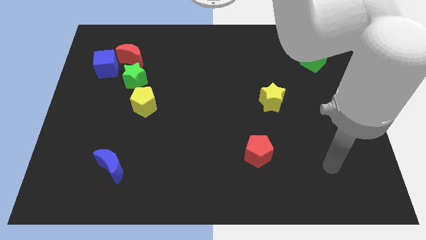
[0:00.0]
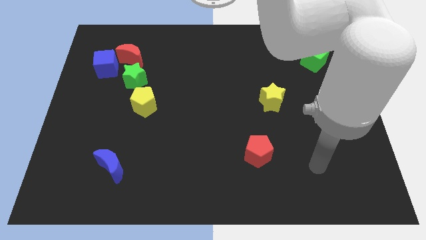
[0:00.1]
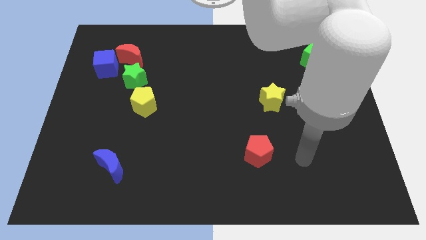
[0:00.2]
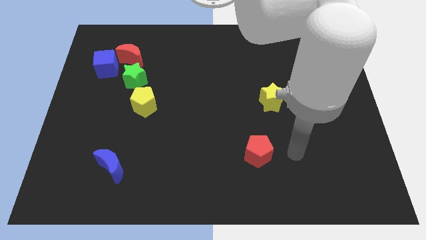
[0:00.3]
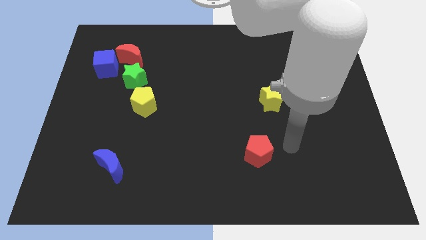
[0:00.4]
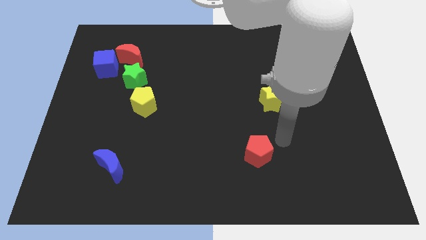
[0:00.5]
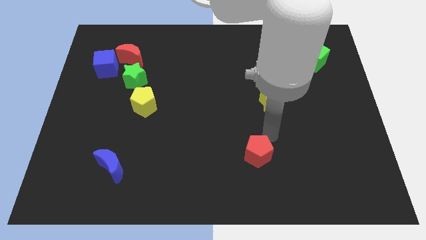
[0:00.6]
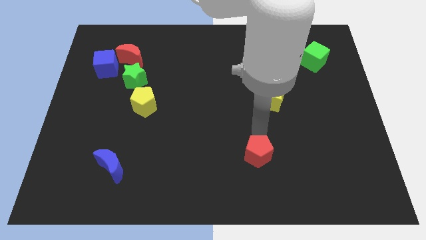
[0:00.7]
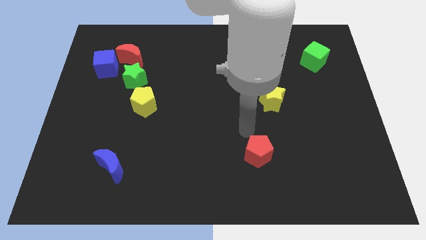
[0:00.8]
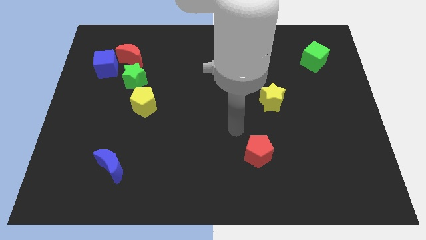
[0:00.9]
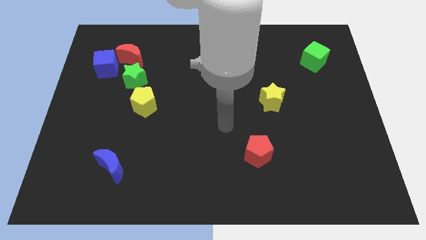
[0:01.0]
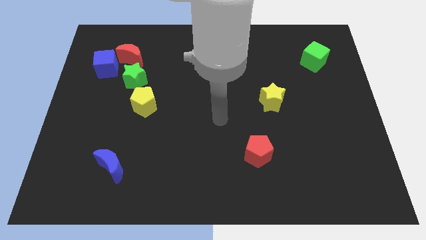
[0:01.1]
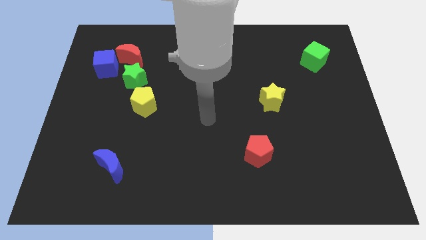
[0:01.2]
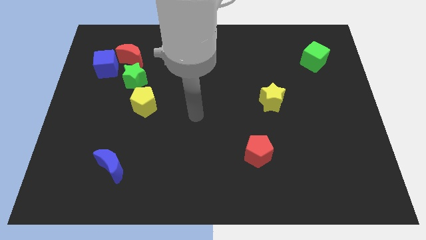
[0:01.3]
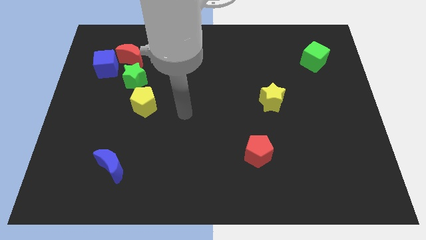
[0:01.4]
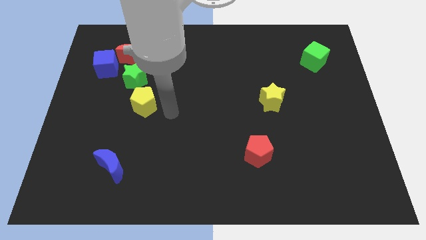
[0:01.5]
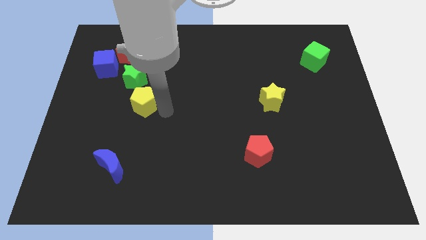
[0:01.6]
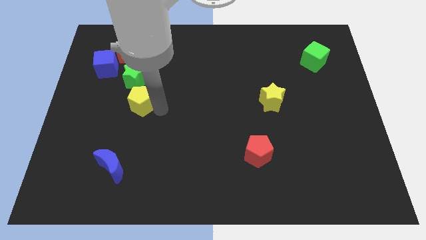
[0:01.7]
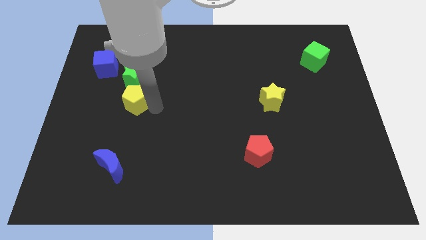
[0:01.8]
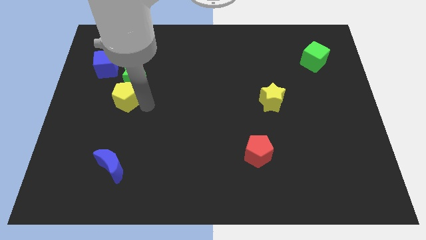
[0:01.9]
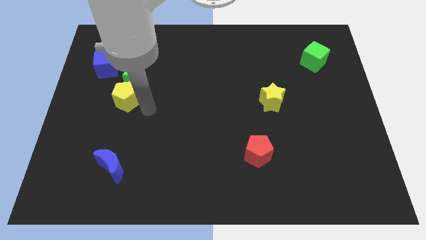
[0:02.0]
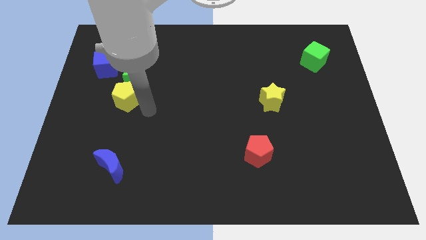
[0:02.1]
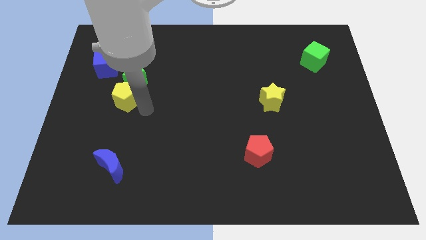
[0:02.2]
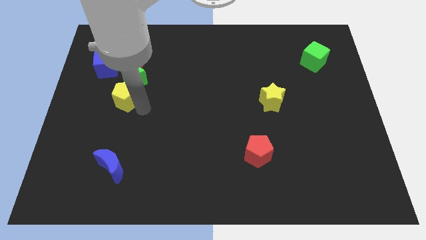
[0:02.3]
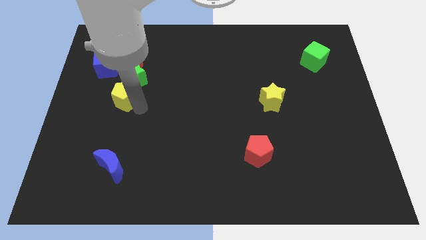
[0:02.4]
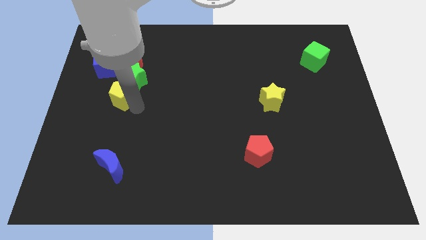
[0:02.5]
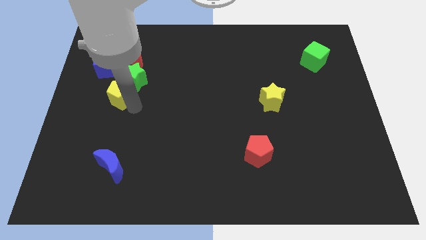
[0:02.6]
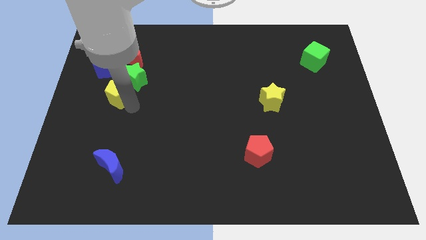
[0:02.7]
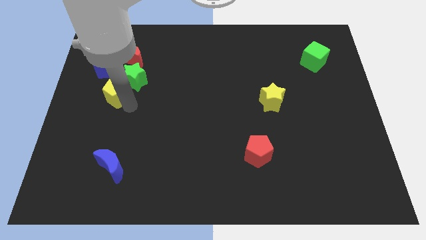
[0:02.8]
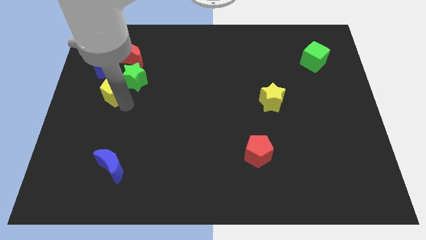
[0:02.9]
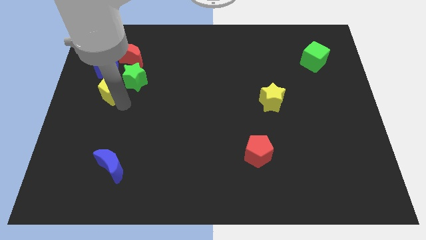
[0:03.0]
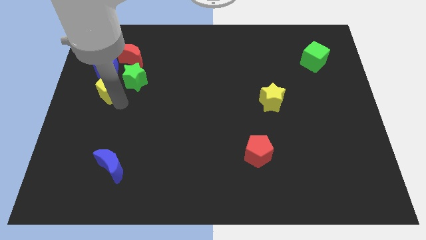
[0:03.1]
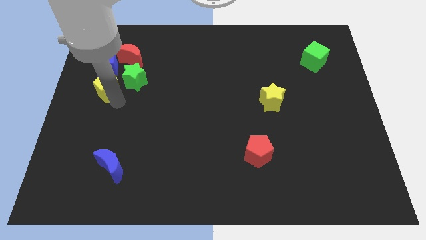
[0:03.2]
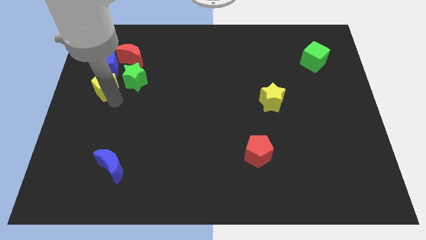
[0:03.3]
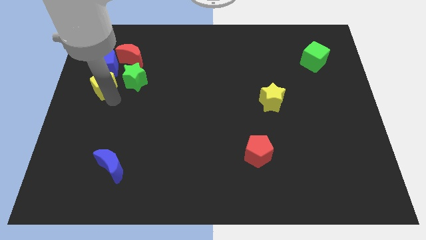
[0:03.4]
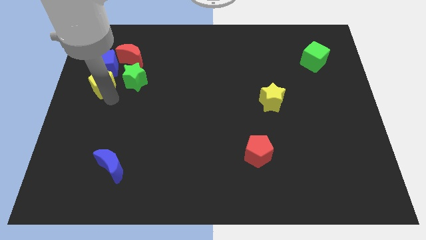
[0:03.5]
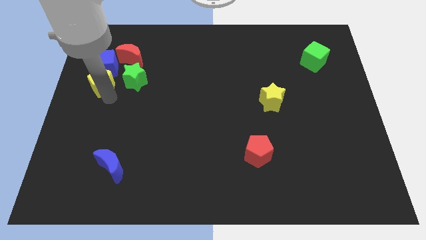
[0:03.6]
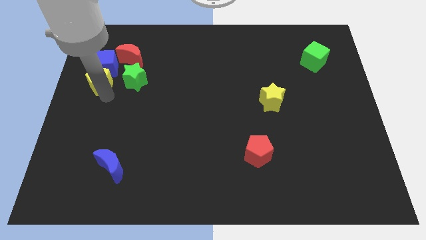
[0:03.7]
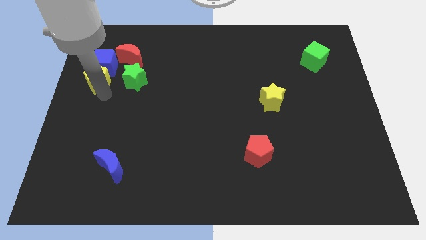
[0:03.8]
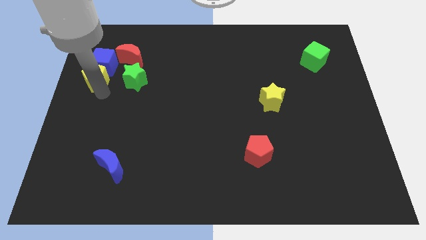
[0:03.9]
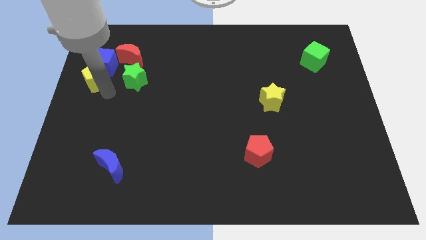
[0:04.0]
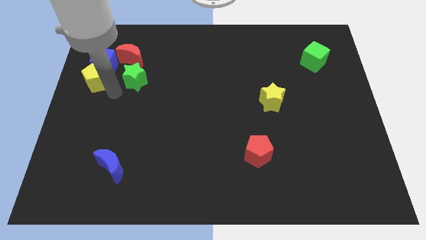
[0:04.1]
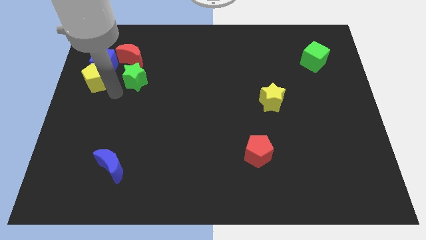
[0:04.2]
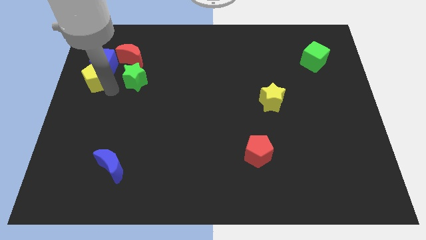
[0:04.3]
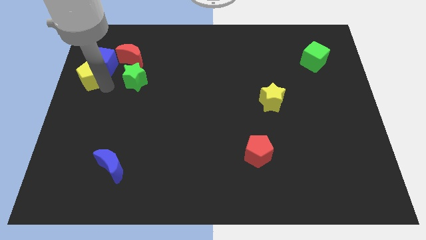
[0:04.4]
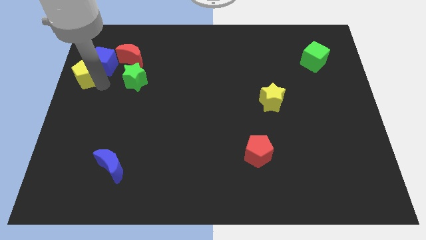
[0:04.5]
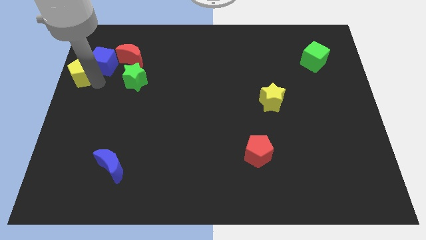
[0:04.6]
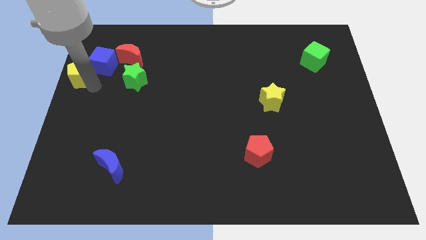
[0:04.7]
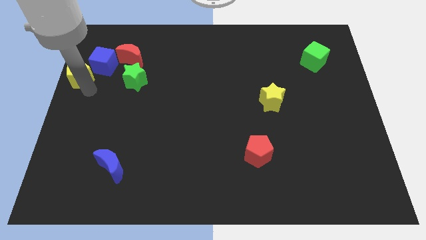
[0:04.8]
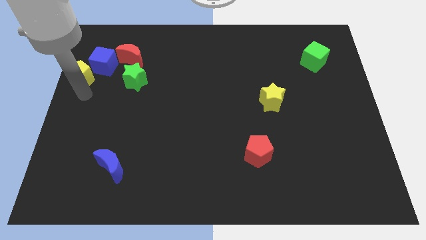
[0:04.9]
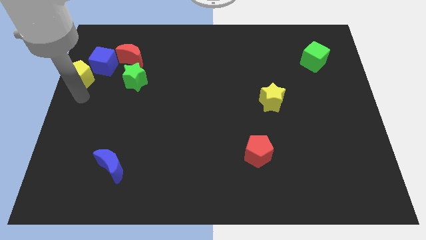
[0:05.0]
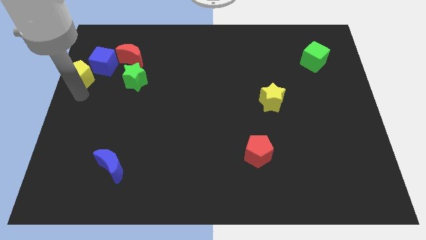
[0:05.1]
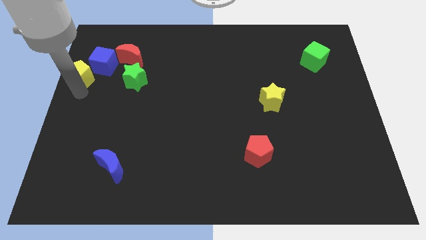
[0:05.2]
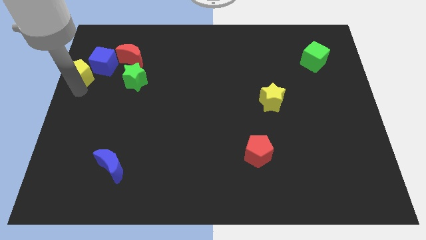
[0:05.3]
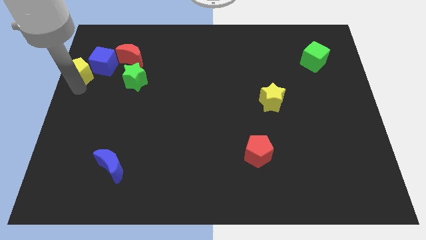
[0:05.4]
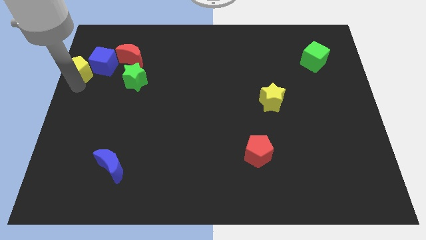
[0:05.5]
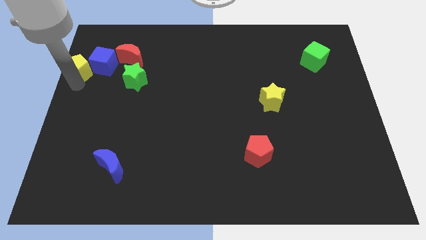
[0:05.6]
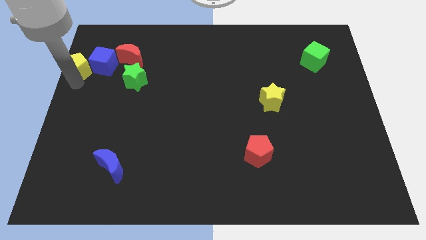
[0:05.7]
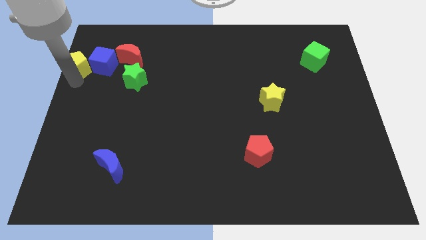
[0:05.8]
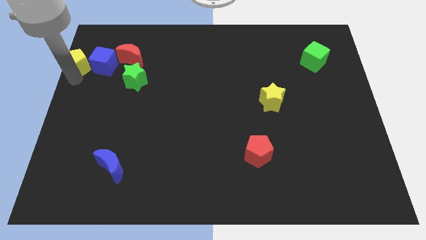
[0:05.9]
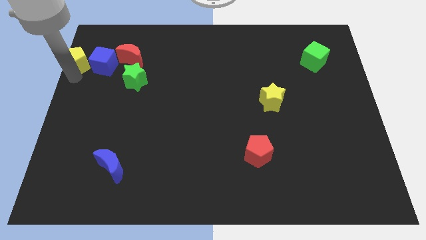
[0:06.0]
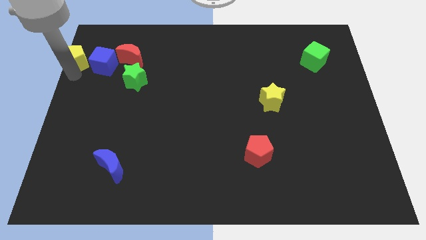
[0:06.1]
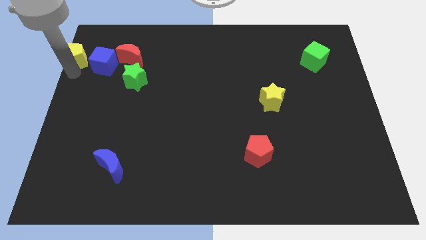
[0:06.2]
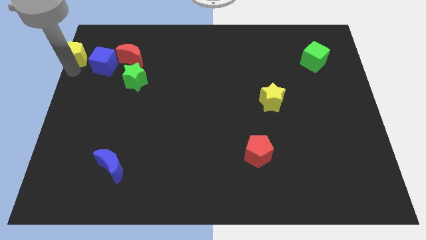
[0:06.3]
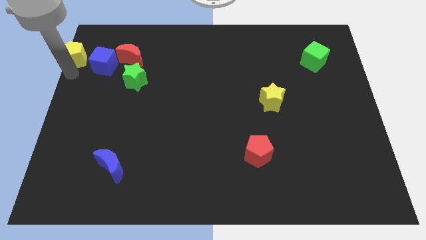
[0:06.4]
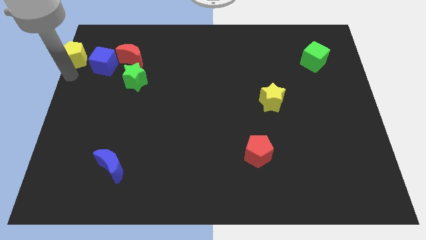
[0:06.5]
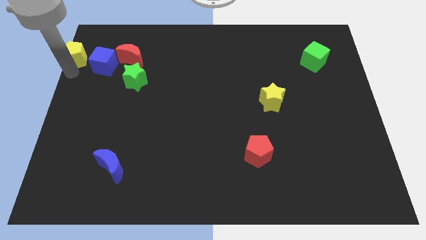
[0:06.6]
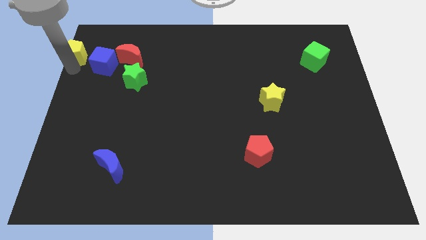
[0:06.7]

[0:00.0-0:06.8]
put the yellow pentagon to the top left corner
